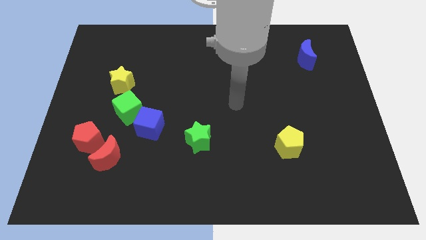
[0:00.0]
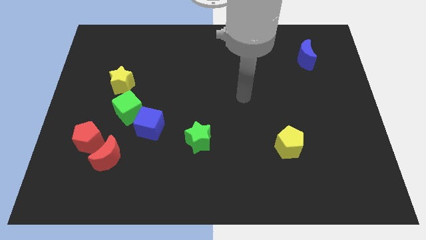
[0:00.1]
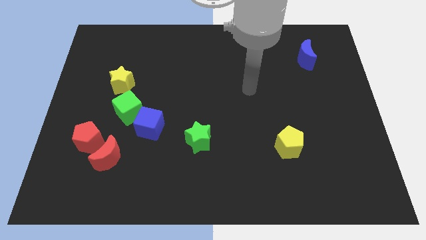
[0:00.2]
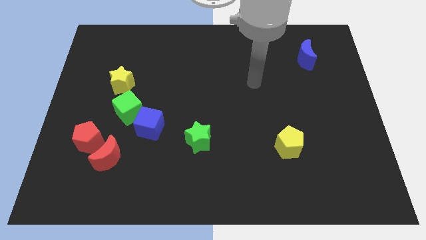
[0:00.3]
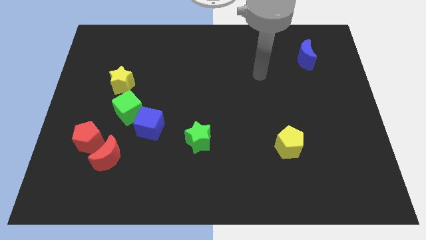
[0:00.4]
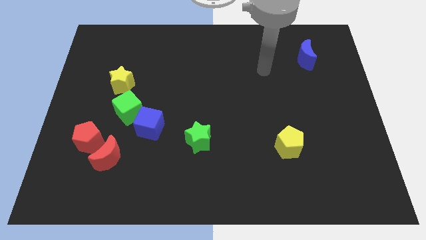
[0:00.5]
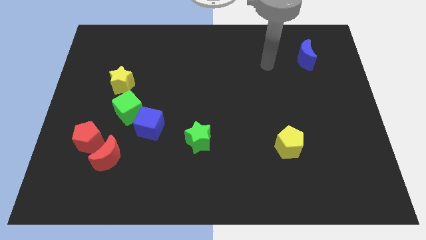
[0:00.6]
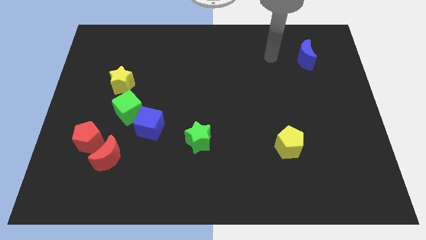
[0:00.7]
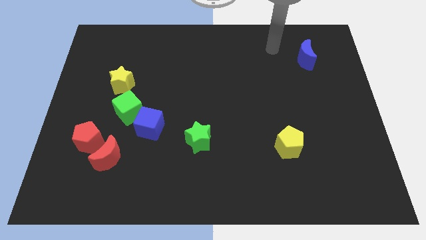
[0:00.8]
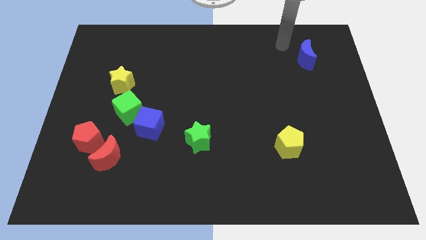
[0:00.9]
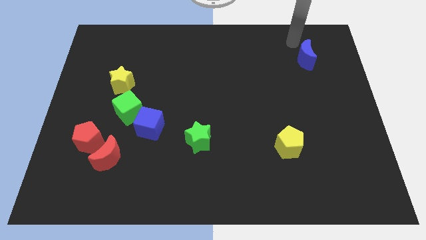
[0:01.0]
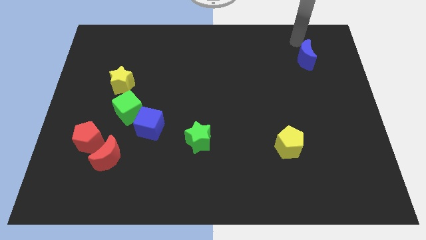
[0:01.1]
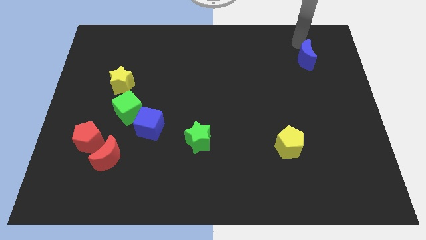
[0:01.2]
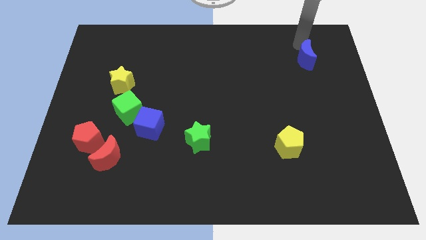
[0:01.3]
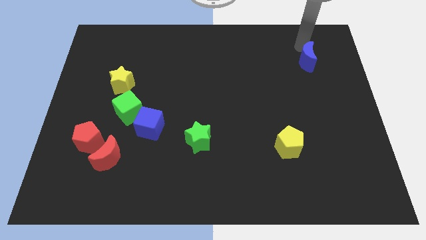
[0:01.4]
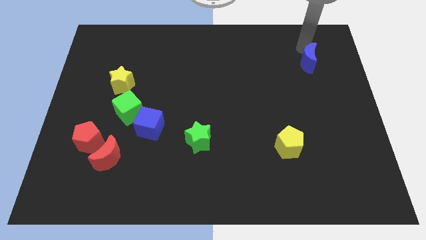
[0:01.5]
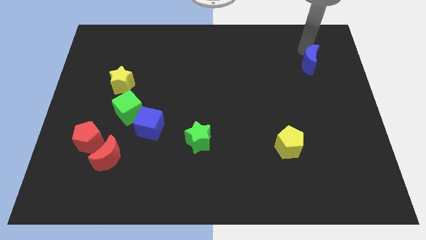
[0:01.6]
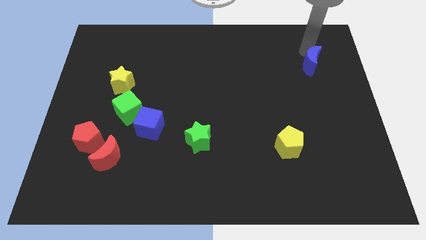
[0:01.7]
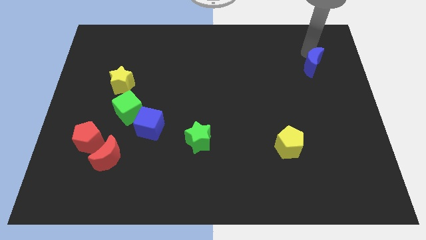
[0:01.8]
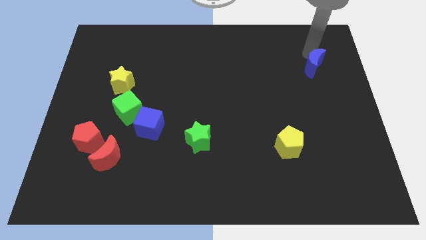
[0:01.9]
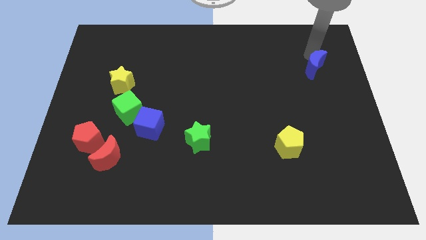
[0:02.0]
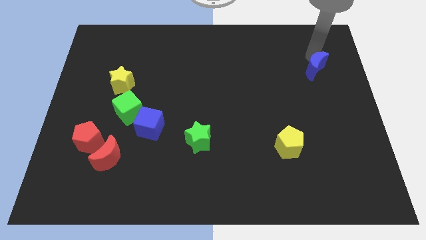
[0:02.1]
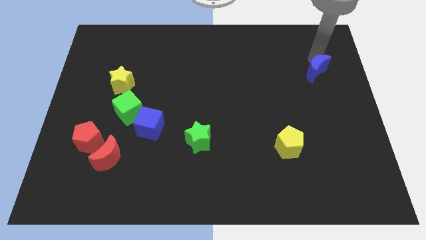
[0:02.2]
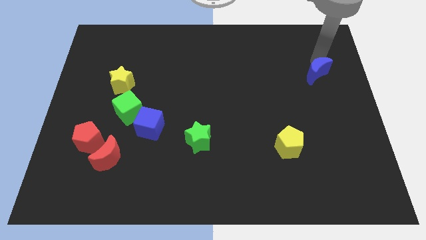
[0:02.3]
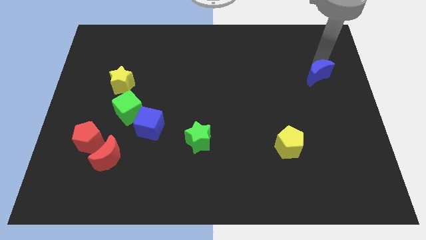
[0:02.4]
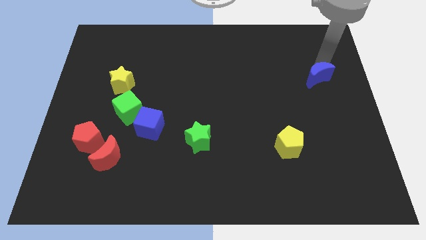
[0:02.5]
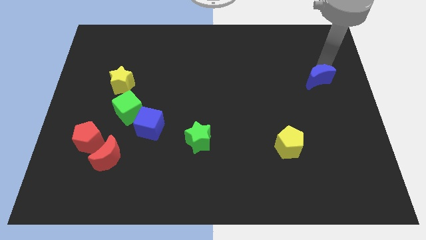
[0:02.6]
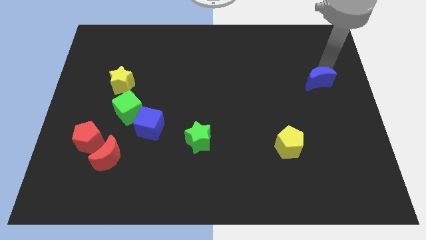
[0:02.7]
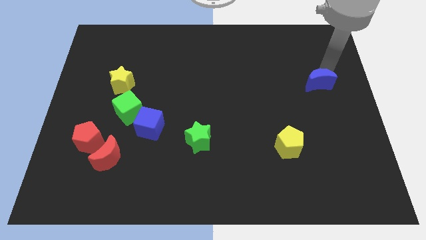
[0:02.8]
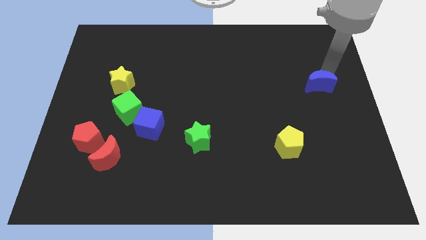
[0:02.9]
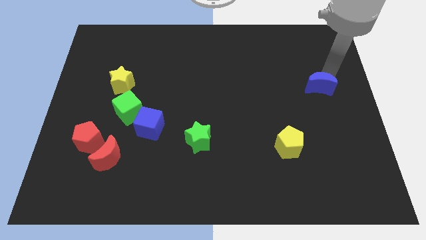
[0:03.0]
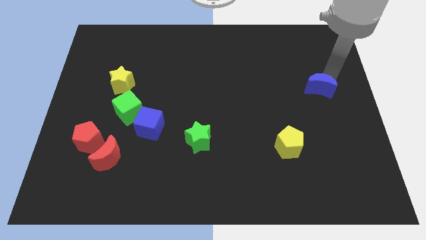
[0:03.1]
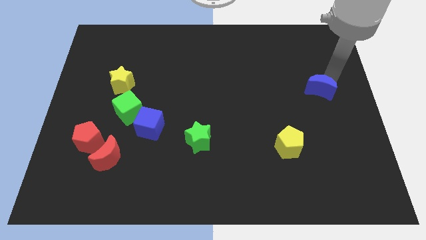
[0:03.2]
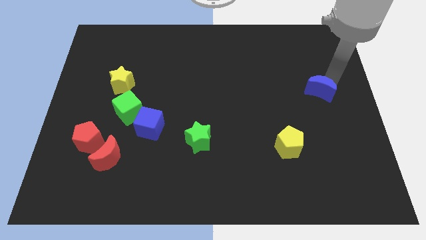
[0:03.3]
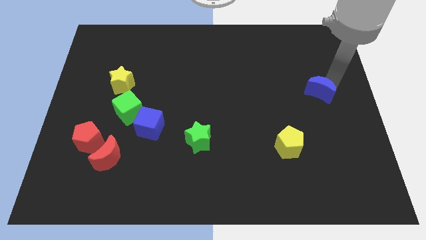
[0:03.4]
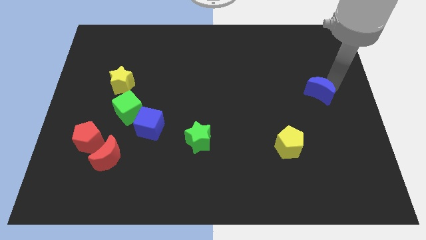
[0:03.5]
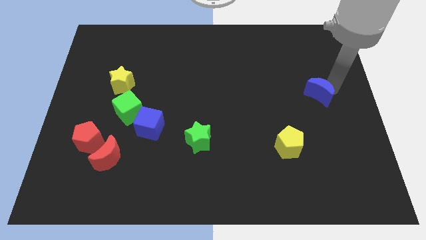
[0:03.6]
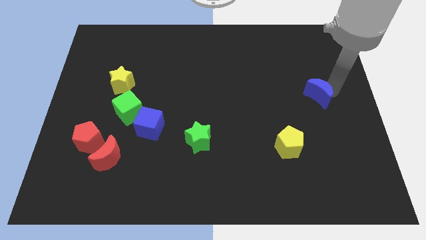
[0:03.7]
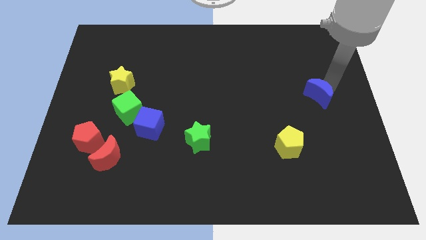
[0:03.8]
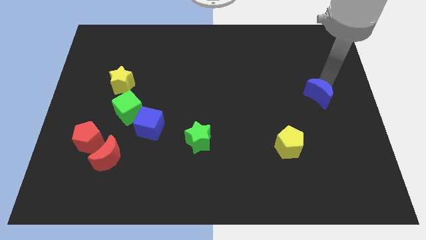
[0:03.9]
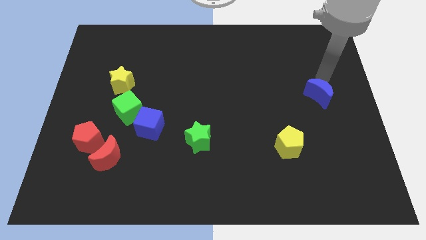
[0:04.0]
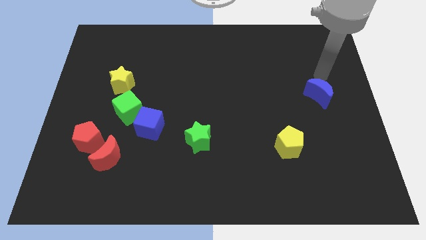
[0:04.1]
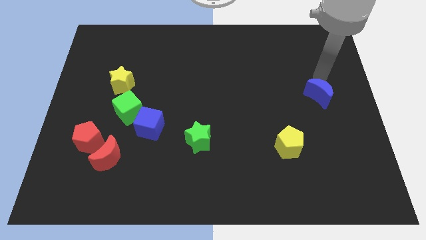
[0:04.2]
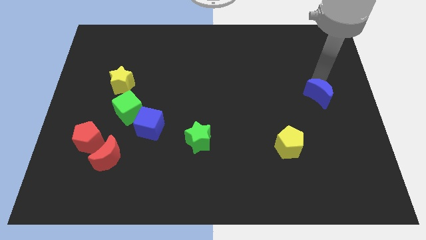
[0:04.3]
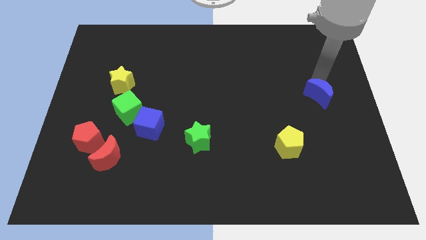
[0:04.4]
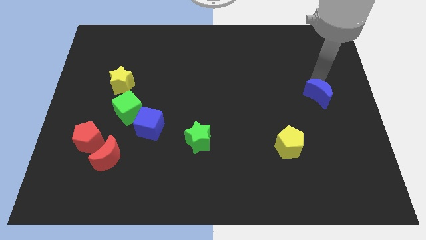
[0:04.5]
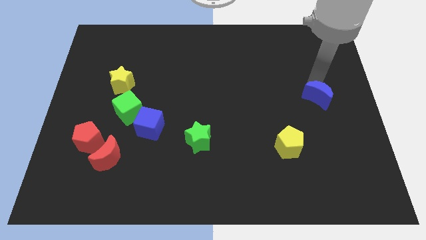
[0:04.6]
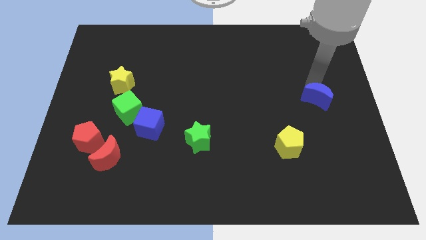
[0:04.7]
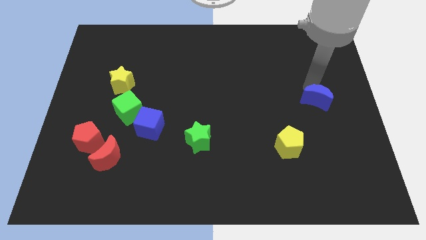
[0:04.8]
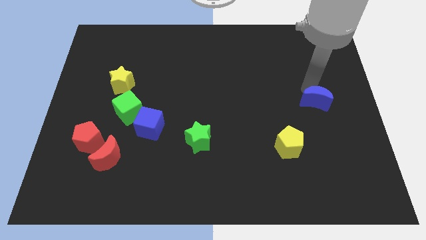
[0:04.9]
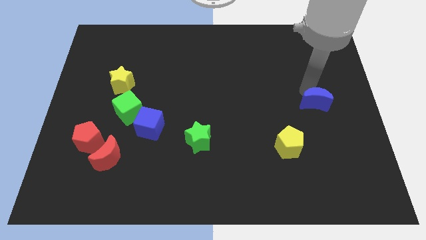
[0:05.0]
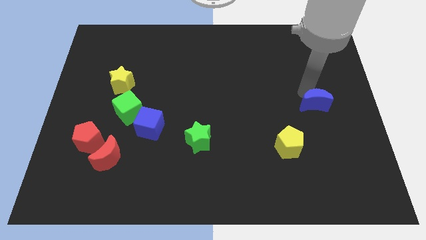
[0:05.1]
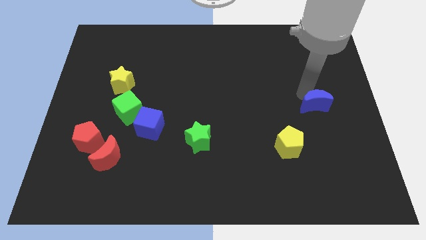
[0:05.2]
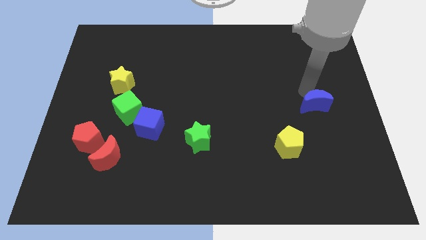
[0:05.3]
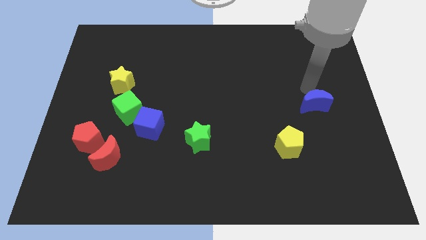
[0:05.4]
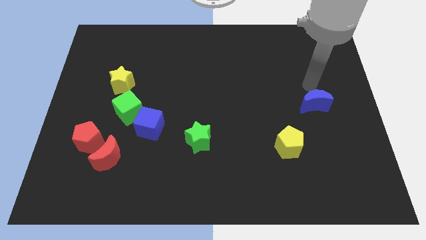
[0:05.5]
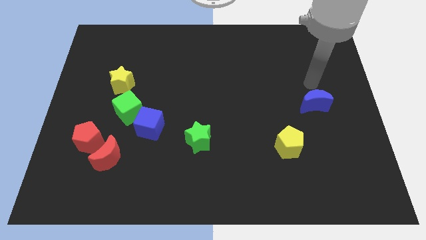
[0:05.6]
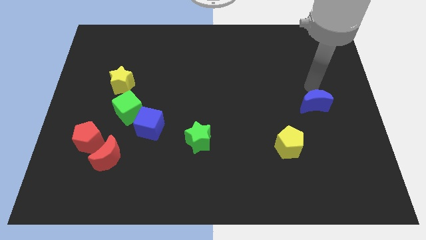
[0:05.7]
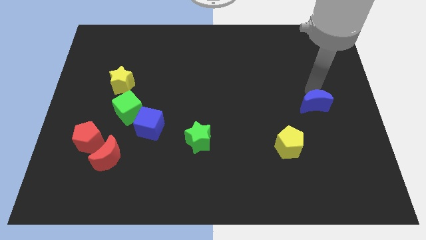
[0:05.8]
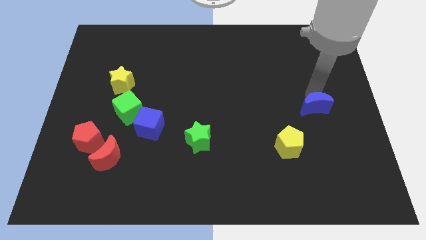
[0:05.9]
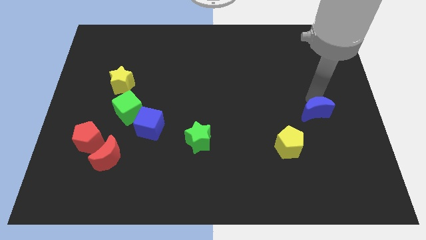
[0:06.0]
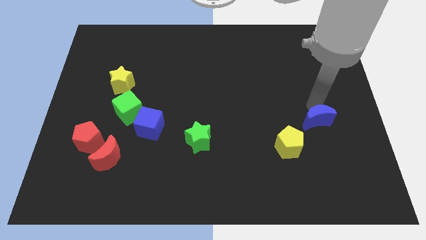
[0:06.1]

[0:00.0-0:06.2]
push the blue moon downwards

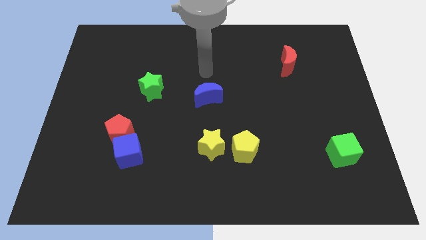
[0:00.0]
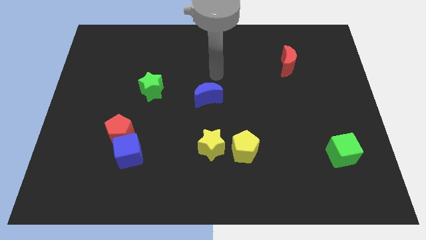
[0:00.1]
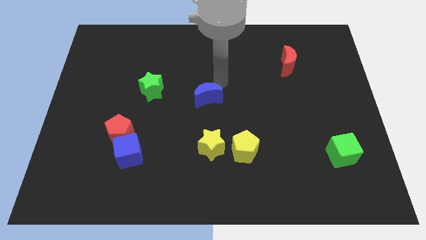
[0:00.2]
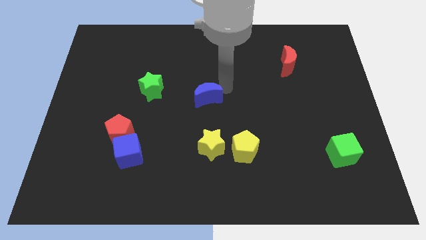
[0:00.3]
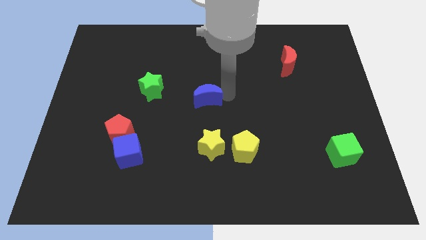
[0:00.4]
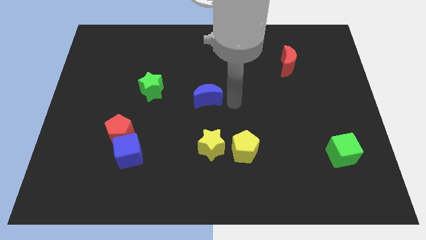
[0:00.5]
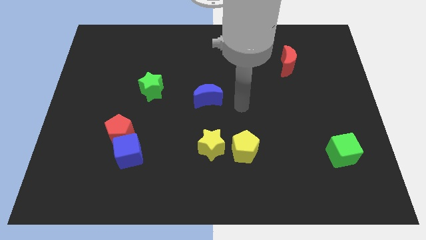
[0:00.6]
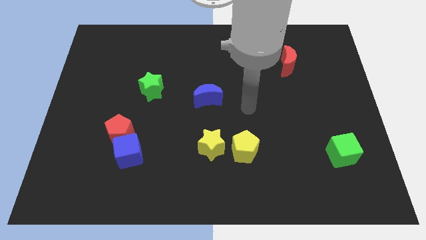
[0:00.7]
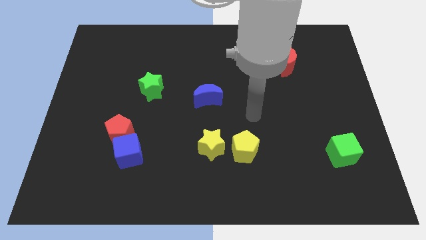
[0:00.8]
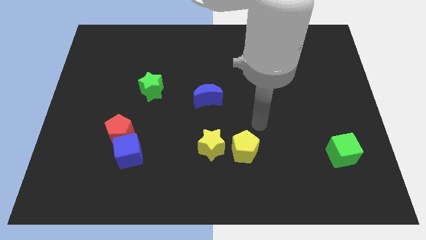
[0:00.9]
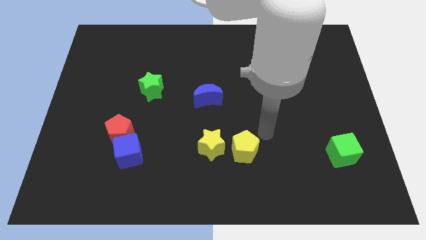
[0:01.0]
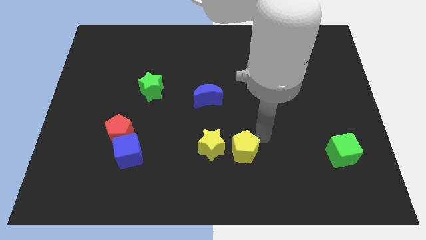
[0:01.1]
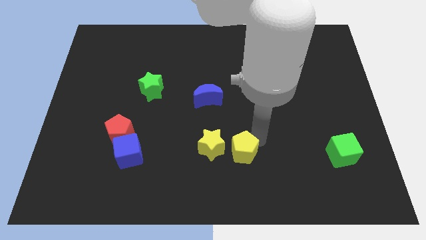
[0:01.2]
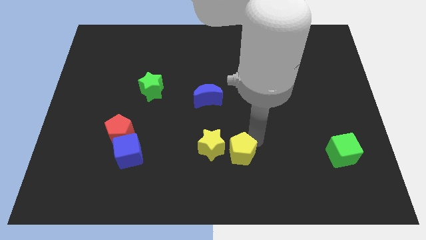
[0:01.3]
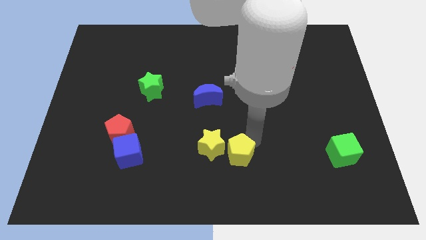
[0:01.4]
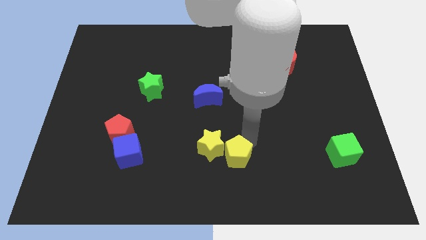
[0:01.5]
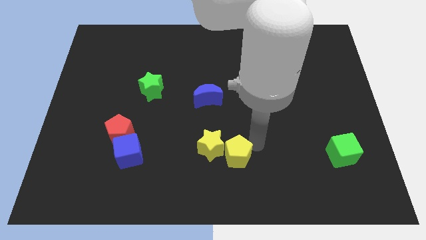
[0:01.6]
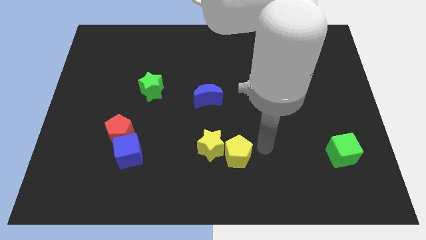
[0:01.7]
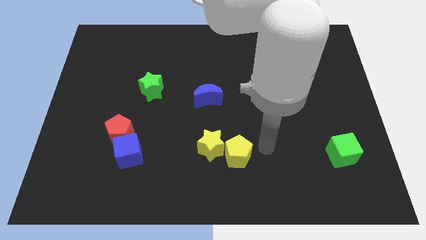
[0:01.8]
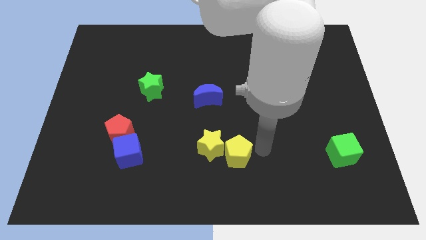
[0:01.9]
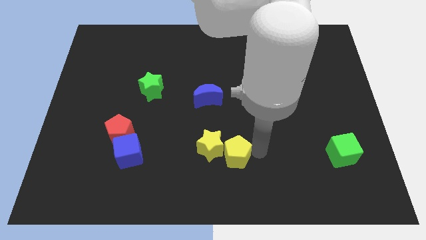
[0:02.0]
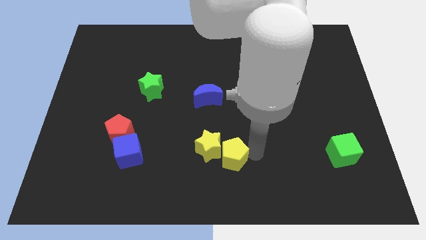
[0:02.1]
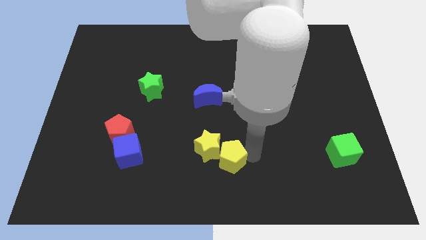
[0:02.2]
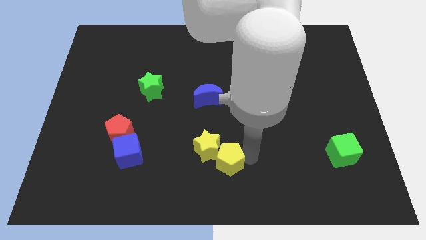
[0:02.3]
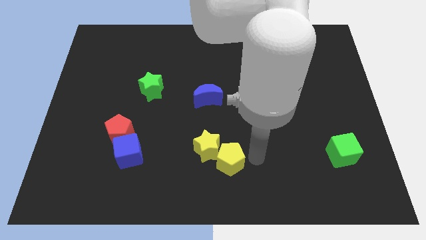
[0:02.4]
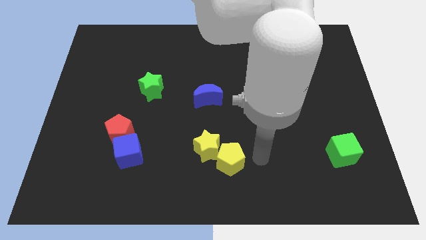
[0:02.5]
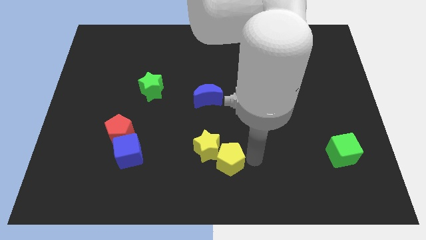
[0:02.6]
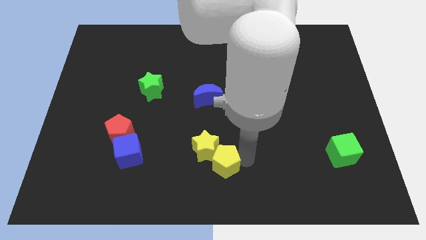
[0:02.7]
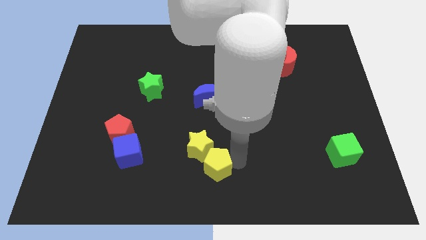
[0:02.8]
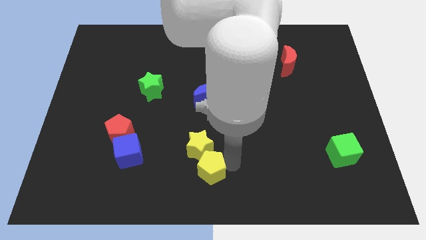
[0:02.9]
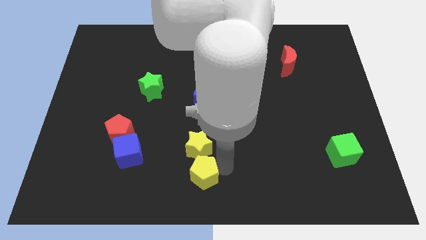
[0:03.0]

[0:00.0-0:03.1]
push the yellow pentagon a little bit left
